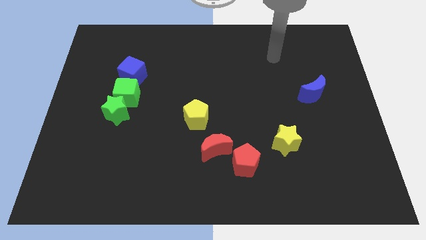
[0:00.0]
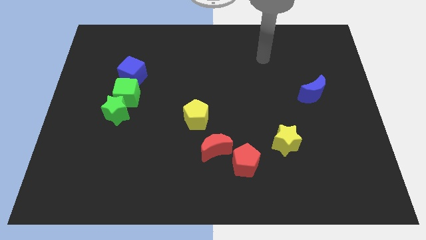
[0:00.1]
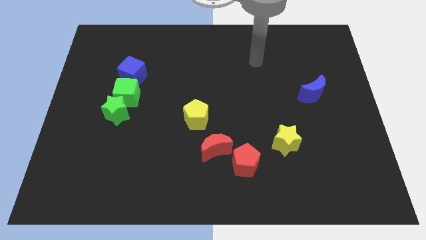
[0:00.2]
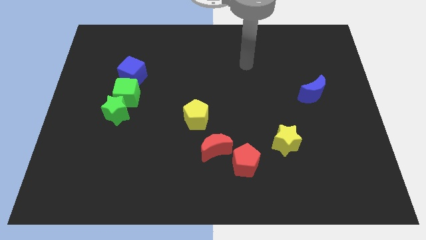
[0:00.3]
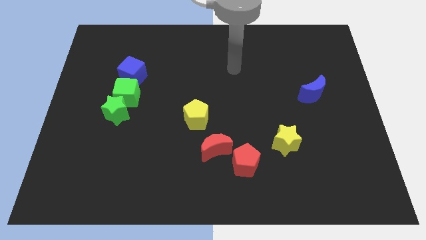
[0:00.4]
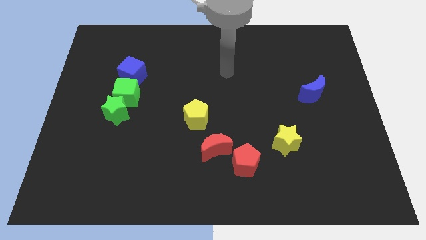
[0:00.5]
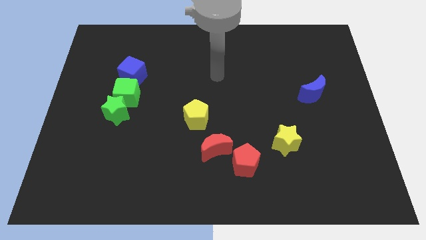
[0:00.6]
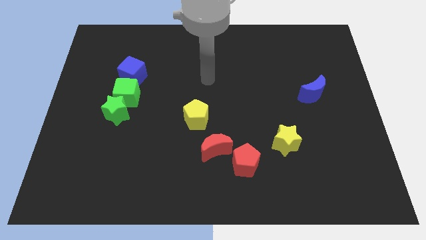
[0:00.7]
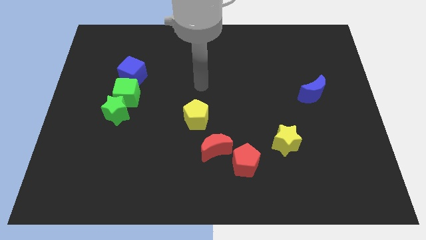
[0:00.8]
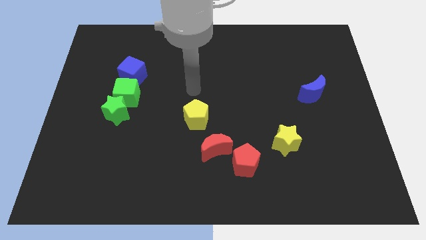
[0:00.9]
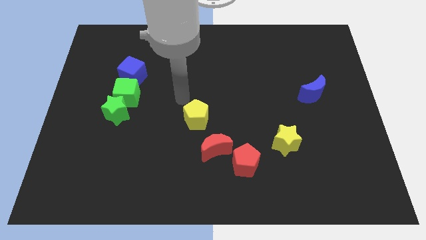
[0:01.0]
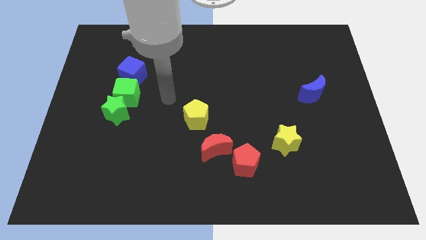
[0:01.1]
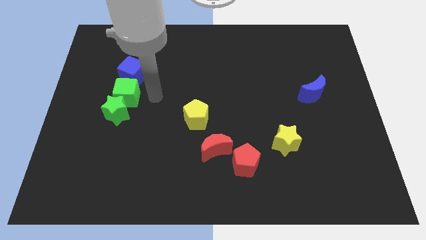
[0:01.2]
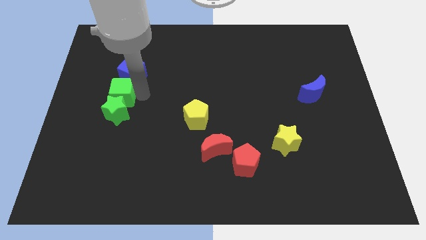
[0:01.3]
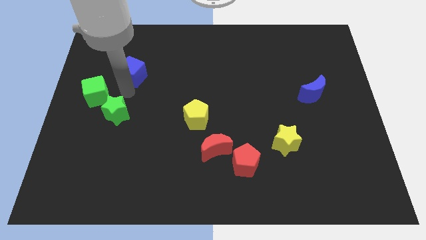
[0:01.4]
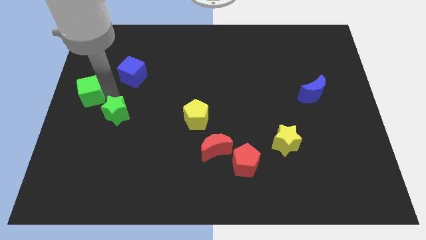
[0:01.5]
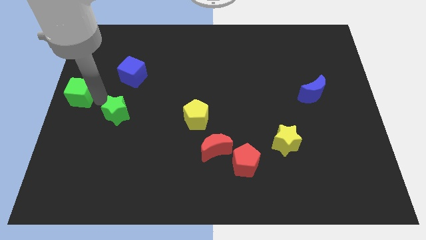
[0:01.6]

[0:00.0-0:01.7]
pull the green star apart from the green cube

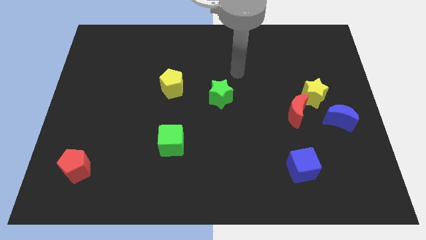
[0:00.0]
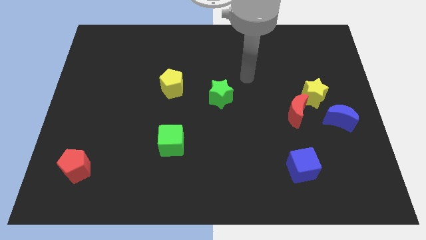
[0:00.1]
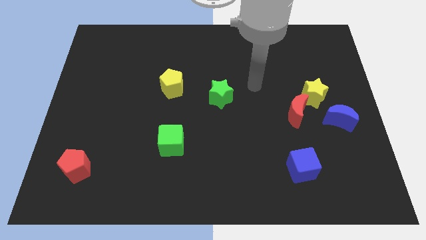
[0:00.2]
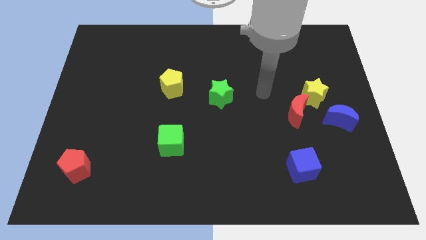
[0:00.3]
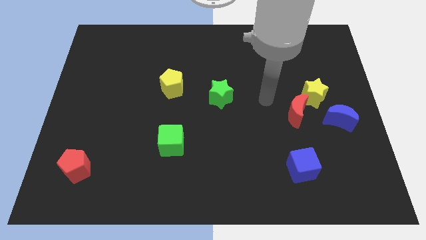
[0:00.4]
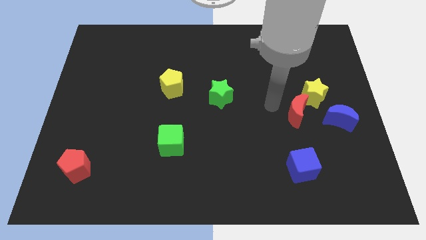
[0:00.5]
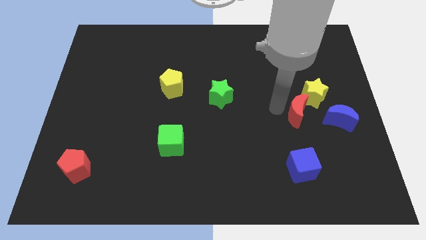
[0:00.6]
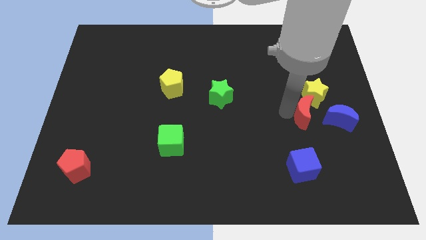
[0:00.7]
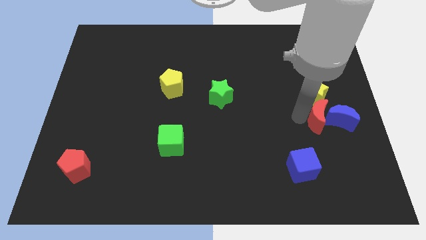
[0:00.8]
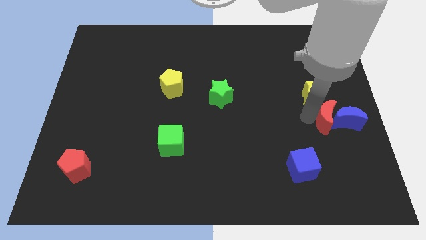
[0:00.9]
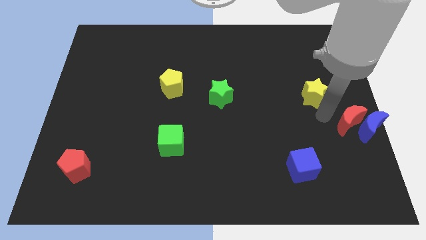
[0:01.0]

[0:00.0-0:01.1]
move the yellow star away from the red moon and blue moon

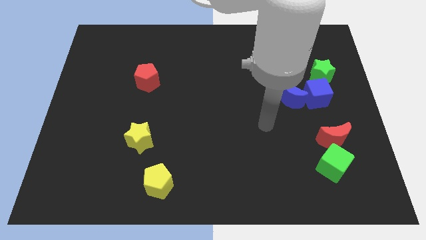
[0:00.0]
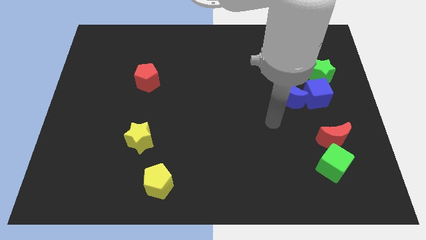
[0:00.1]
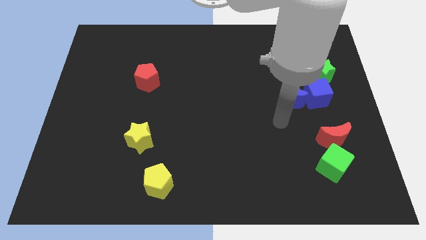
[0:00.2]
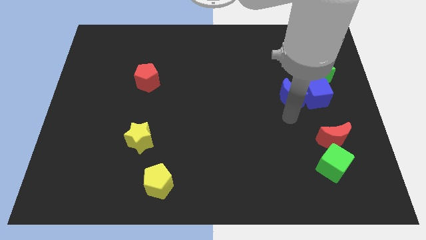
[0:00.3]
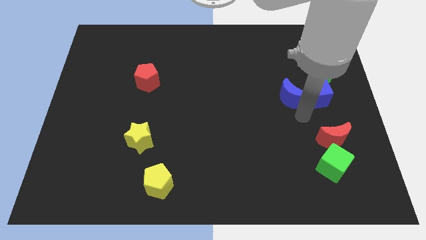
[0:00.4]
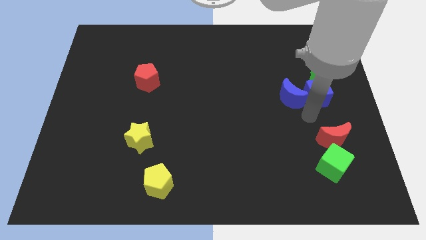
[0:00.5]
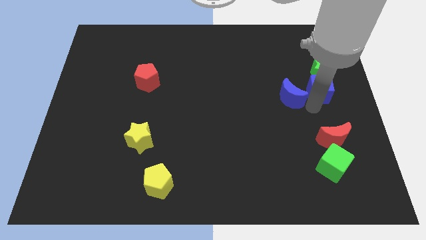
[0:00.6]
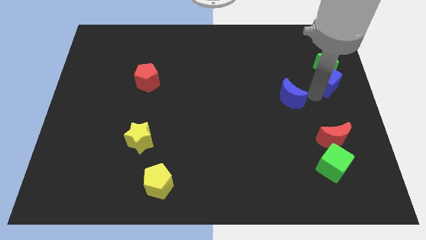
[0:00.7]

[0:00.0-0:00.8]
separate the blue moon from the blue cube

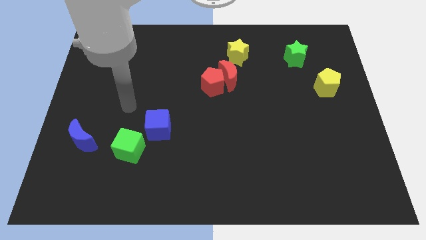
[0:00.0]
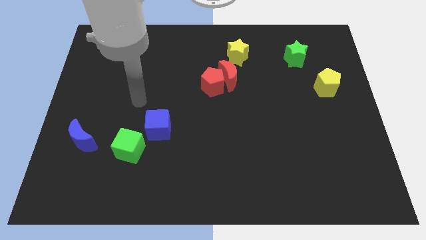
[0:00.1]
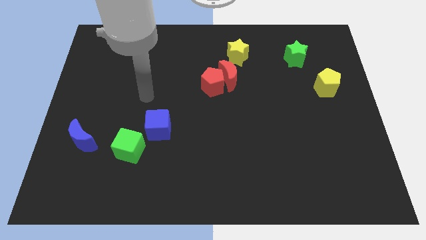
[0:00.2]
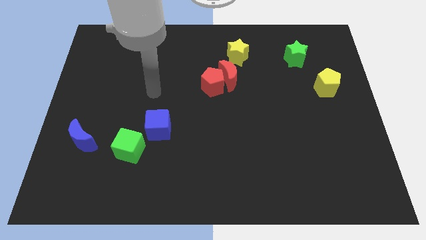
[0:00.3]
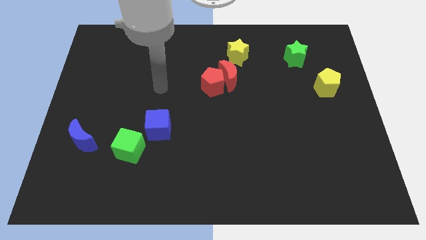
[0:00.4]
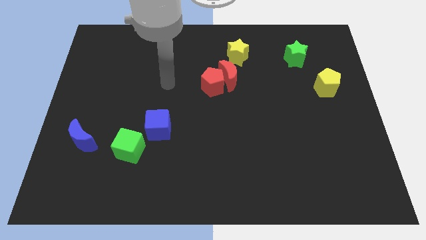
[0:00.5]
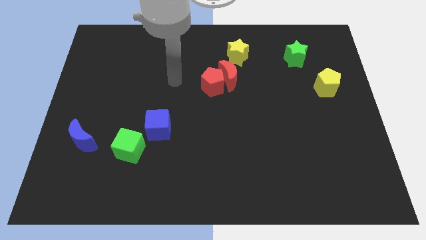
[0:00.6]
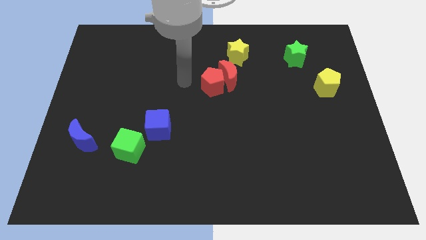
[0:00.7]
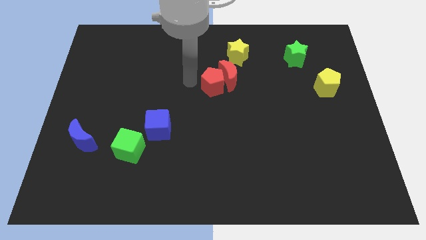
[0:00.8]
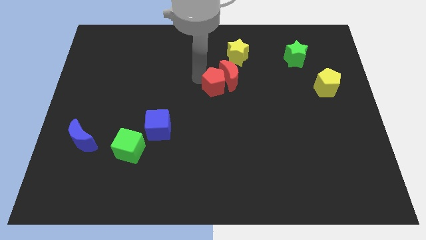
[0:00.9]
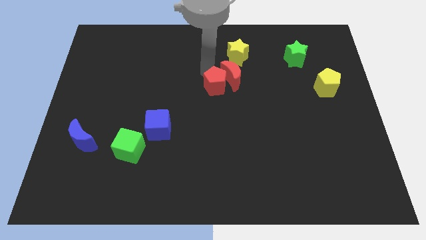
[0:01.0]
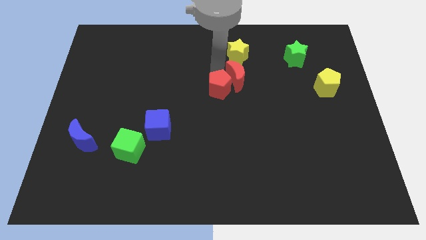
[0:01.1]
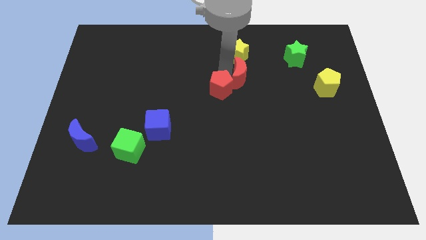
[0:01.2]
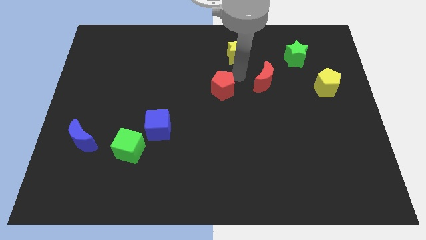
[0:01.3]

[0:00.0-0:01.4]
separate the red pentagon from the red moon

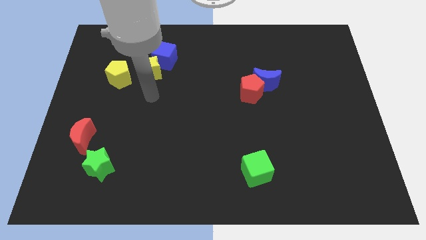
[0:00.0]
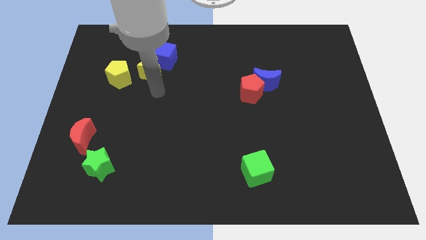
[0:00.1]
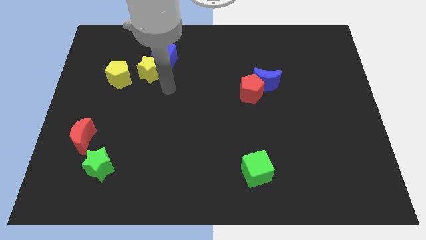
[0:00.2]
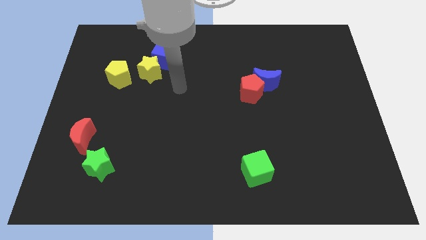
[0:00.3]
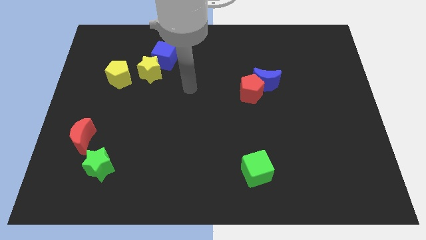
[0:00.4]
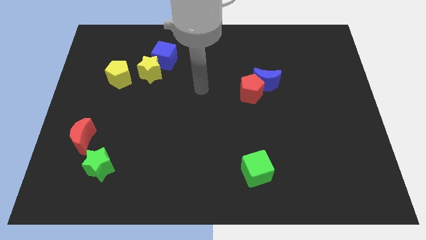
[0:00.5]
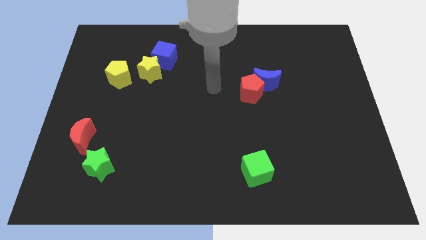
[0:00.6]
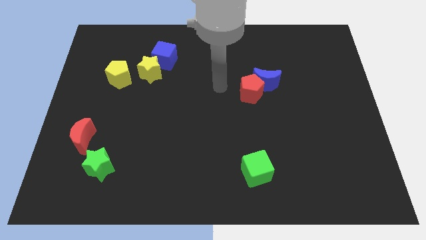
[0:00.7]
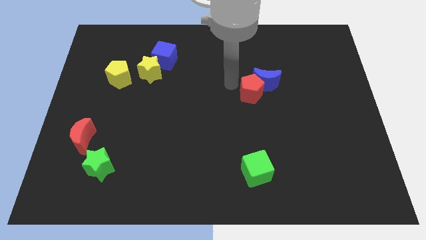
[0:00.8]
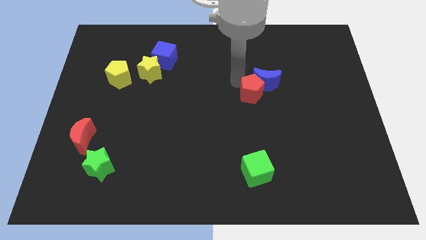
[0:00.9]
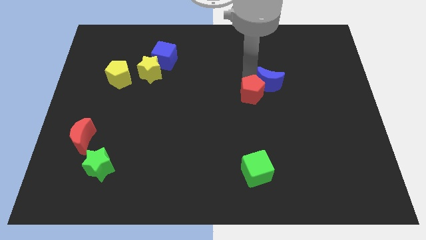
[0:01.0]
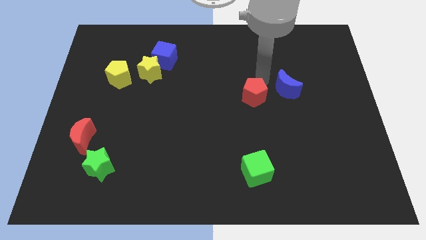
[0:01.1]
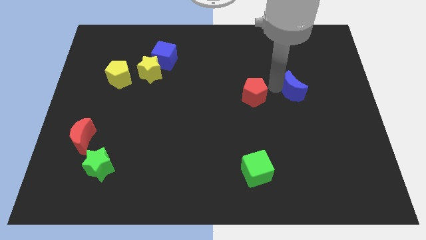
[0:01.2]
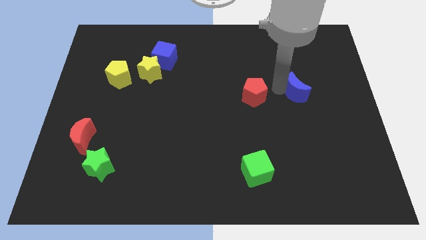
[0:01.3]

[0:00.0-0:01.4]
pull the red pentagon apart from the blue moon

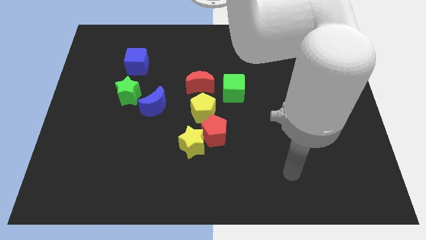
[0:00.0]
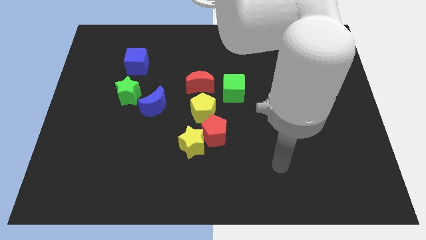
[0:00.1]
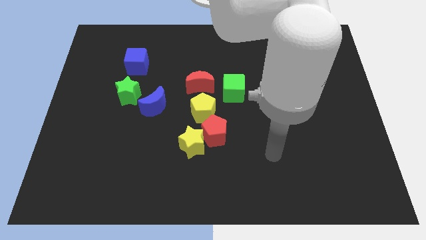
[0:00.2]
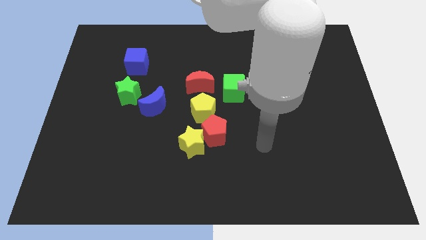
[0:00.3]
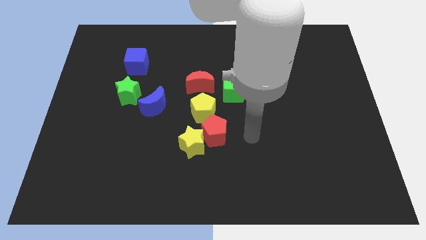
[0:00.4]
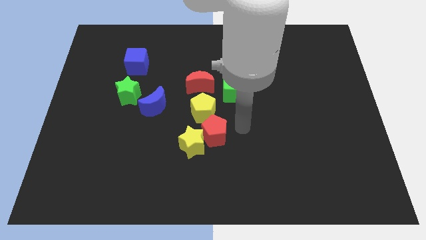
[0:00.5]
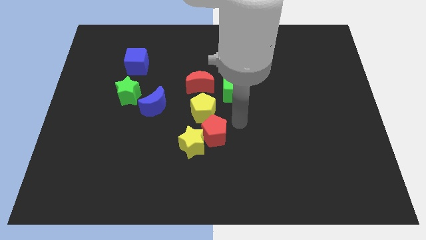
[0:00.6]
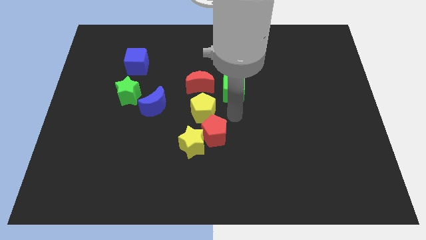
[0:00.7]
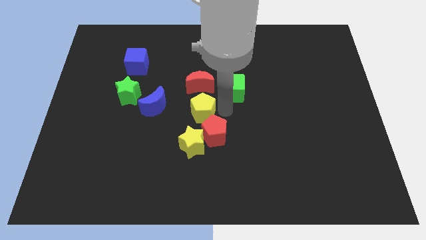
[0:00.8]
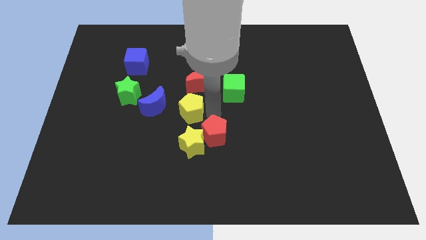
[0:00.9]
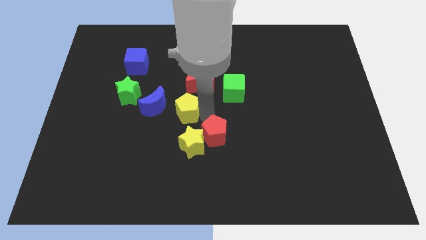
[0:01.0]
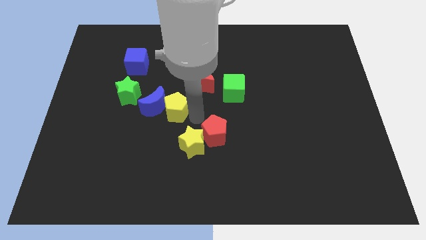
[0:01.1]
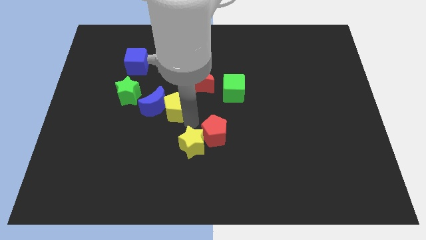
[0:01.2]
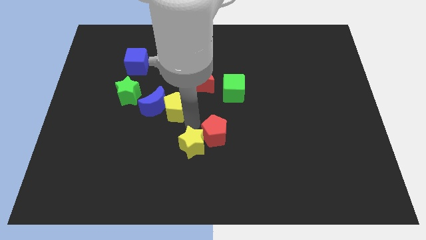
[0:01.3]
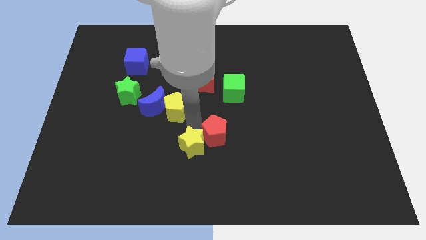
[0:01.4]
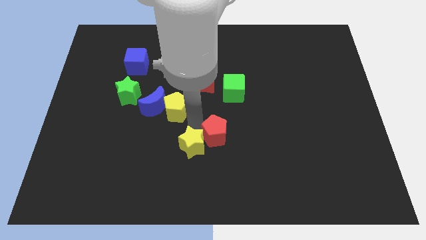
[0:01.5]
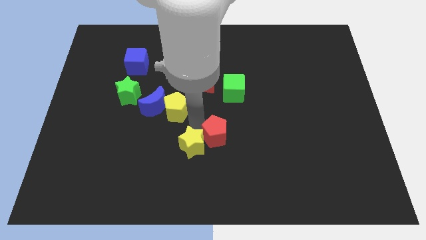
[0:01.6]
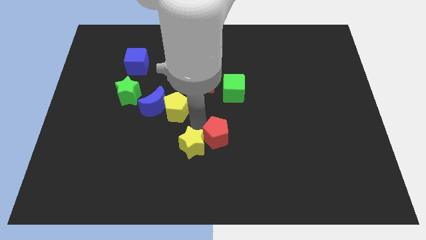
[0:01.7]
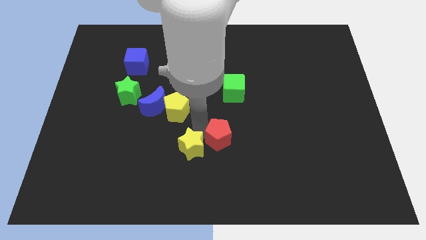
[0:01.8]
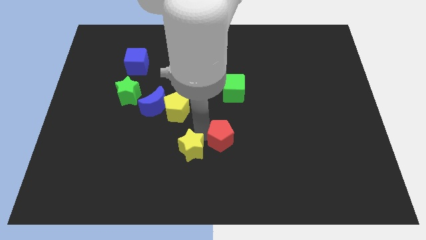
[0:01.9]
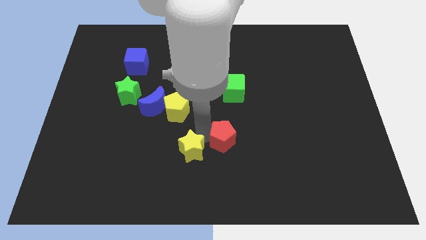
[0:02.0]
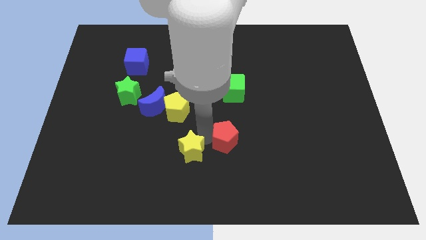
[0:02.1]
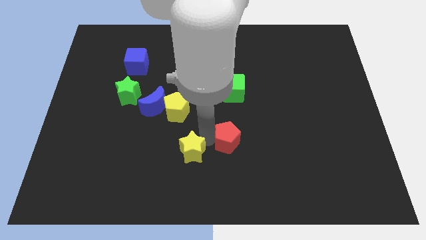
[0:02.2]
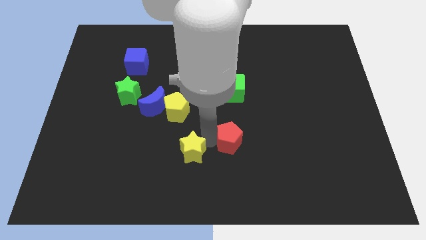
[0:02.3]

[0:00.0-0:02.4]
pull the red pentagon apart from the yellow star and yellow pentagon

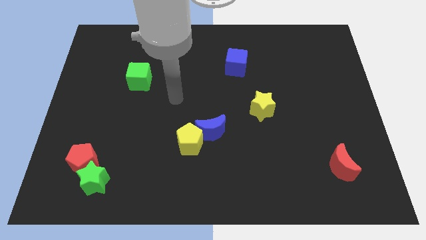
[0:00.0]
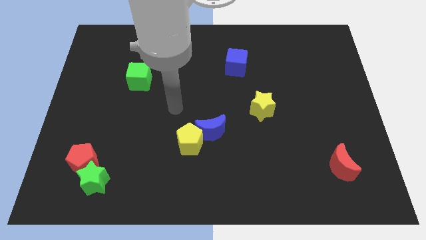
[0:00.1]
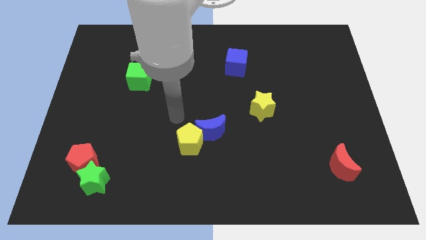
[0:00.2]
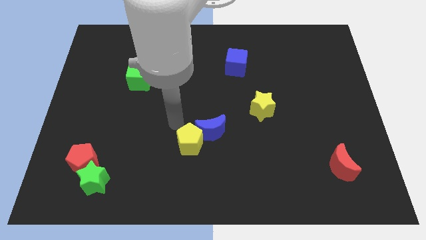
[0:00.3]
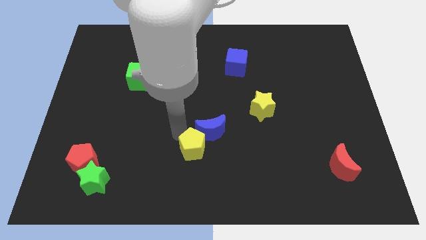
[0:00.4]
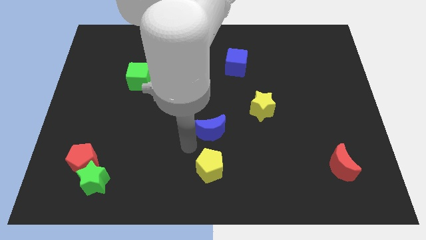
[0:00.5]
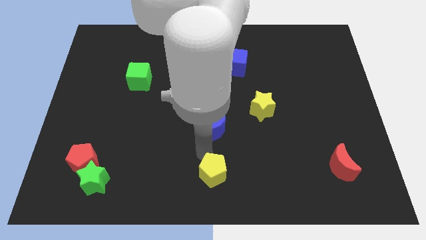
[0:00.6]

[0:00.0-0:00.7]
pull the blue moon apart from the yellow pentagon
